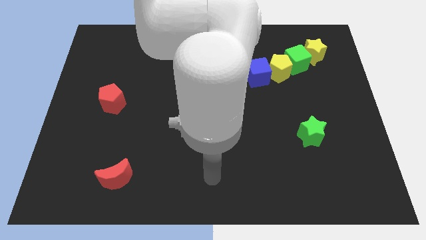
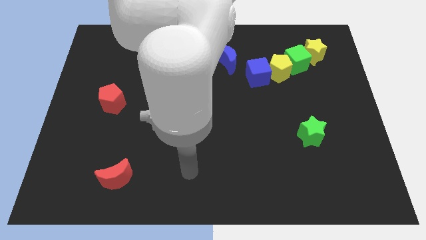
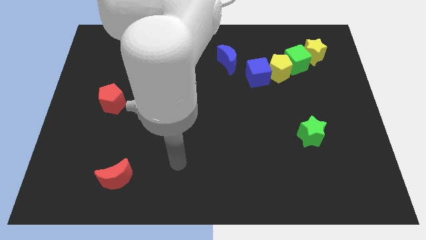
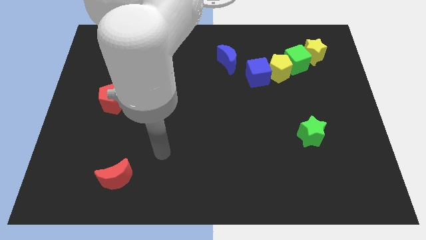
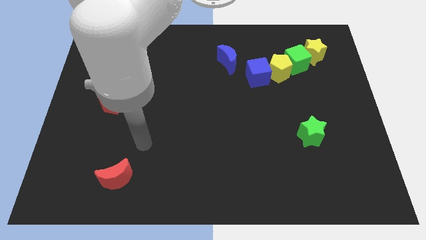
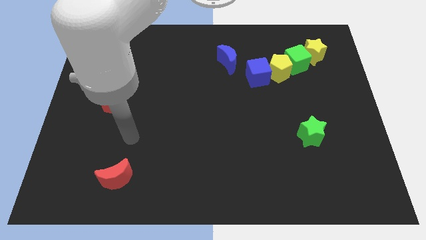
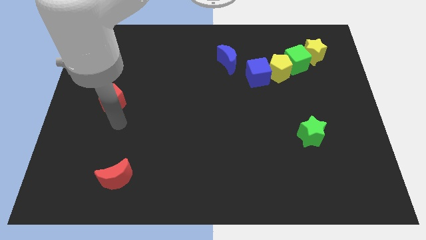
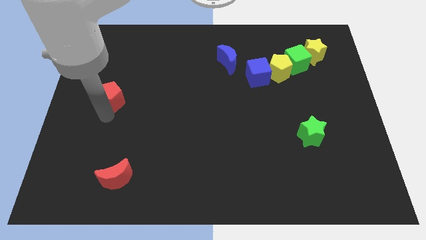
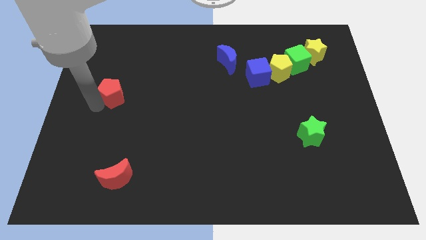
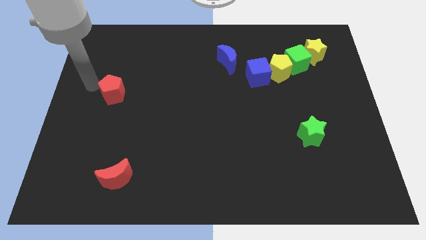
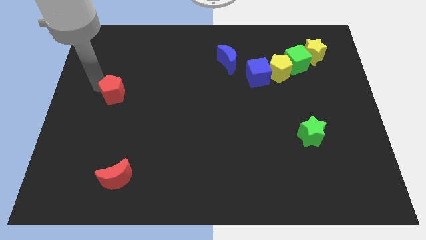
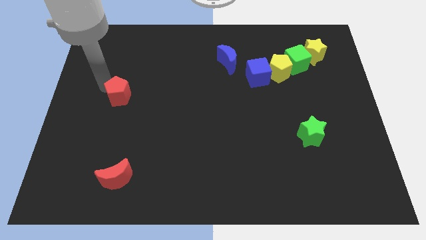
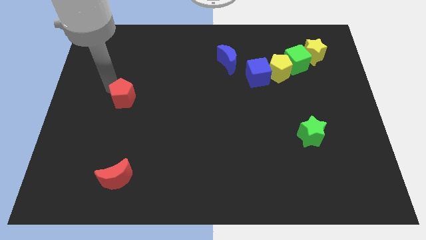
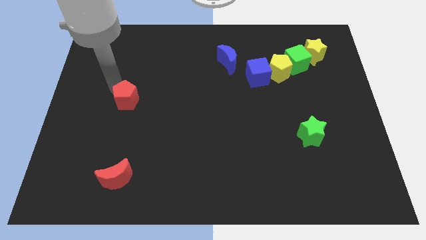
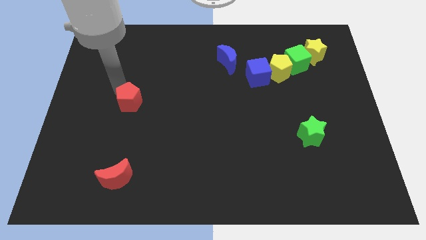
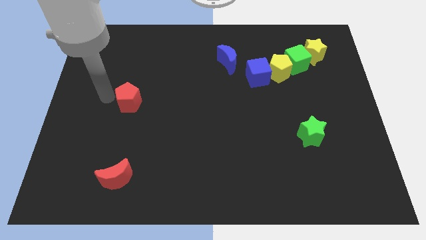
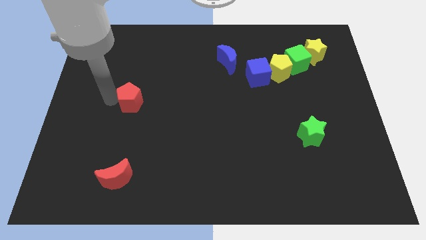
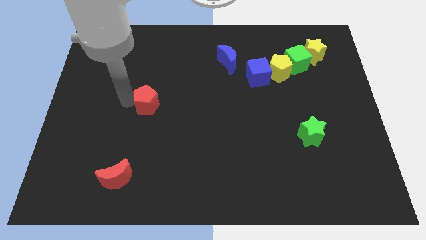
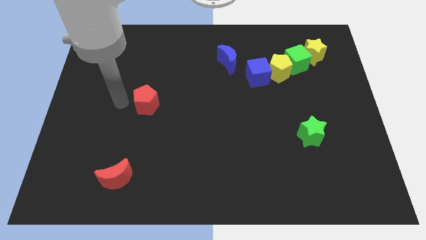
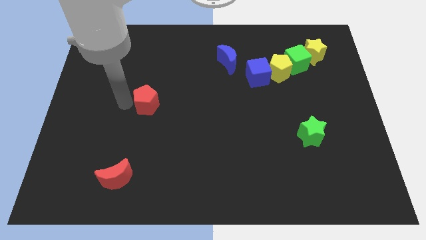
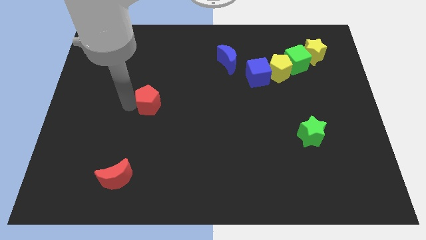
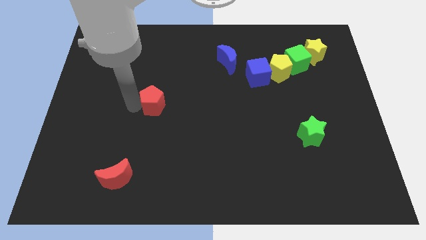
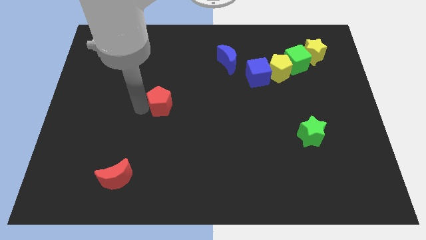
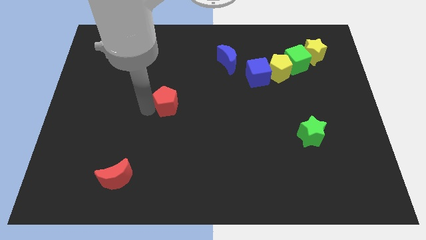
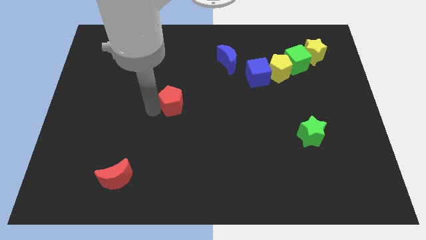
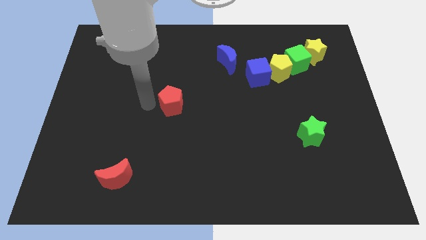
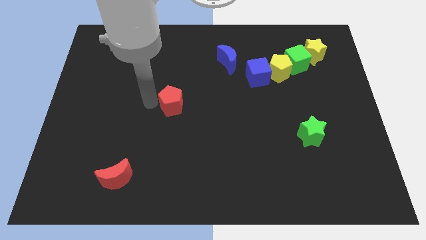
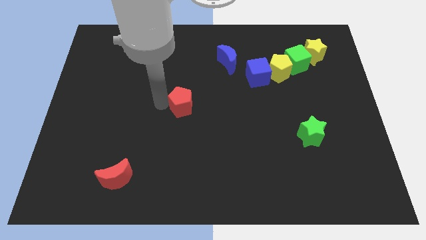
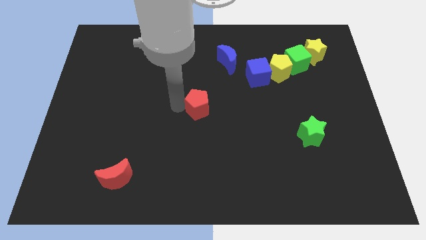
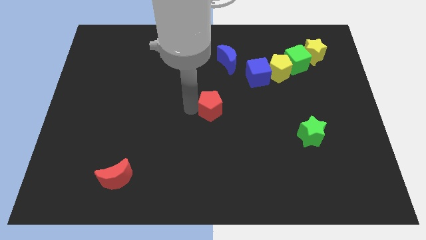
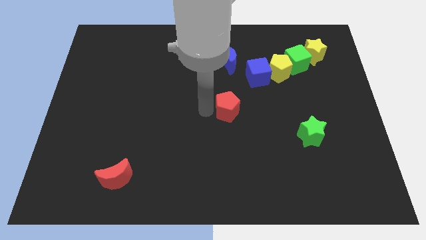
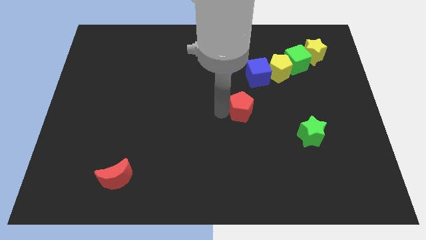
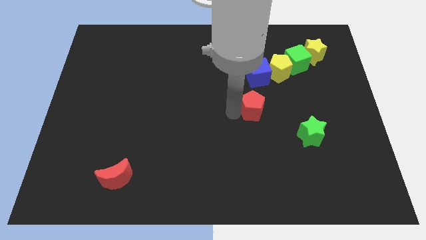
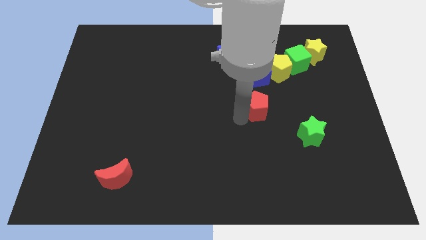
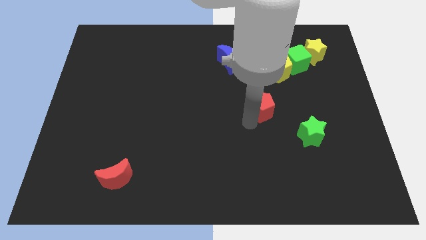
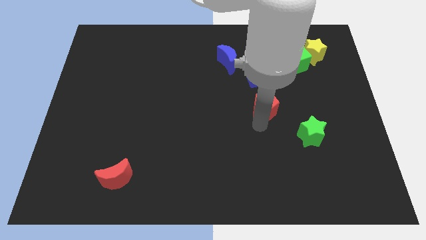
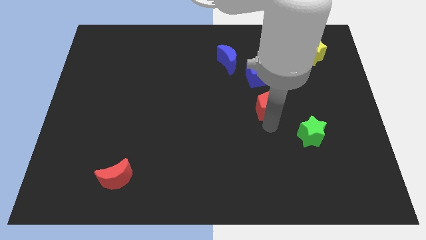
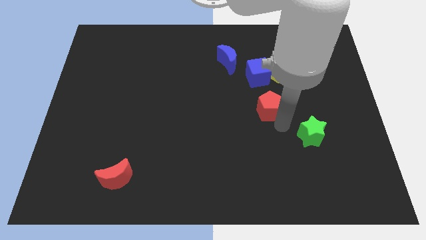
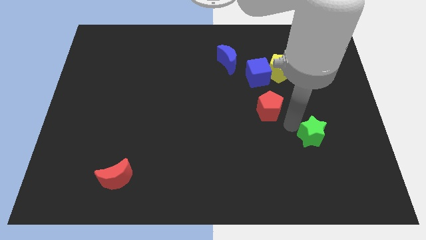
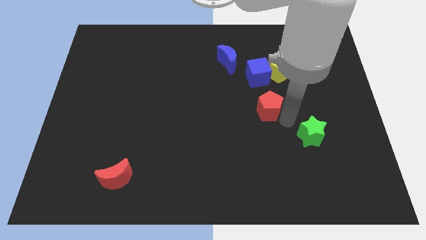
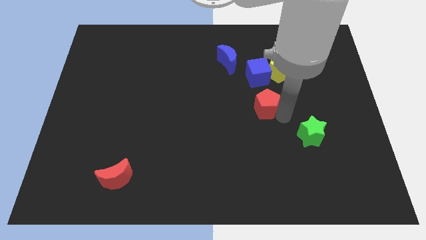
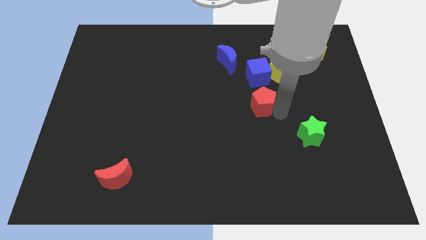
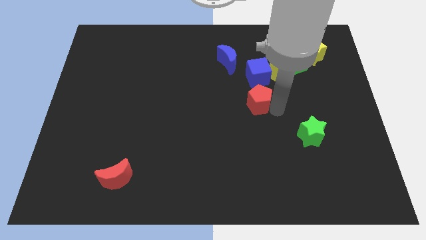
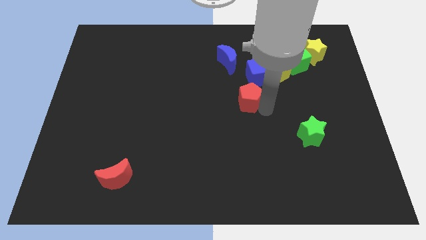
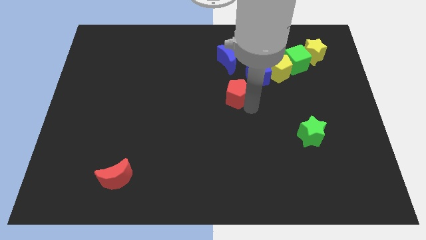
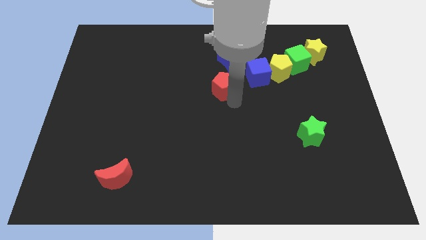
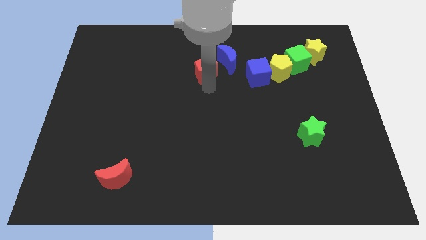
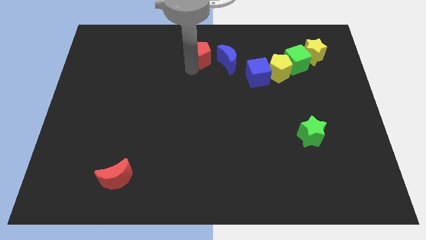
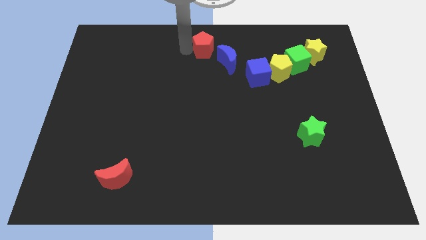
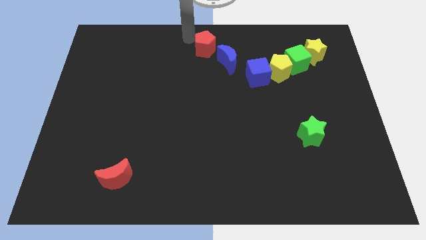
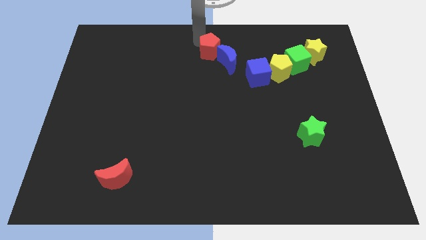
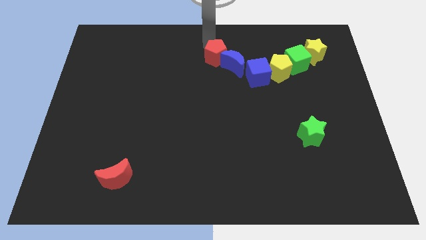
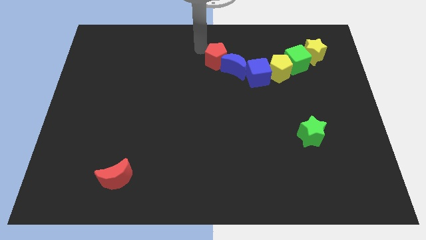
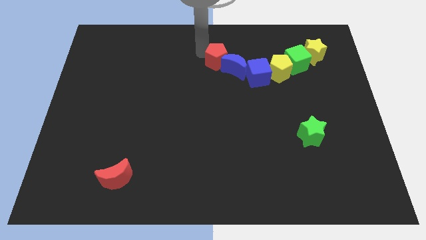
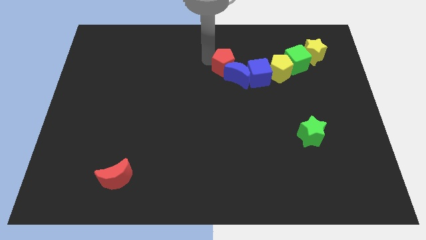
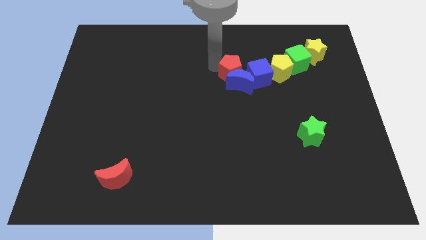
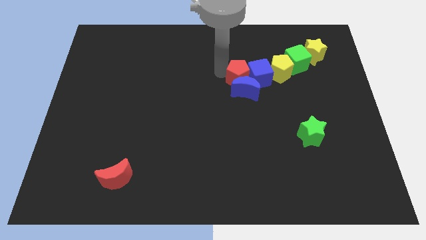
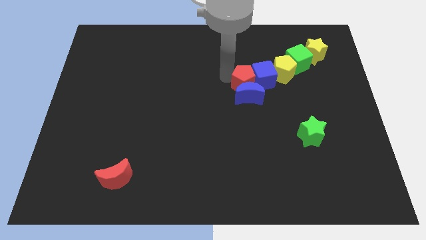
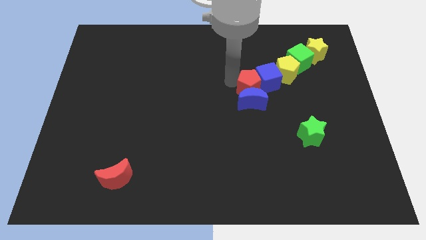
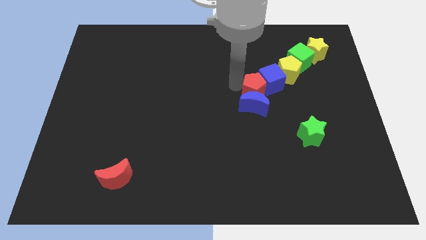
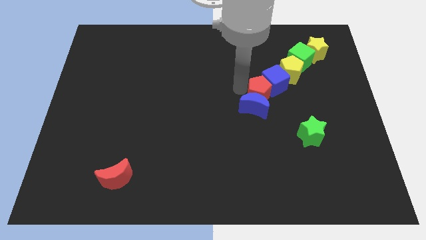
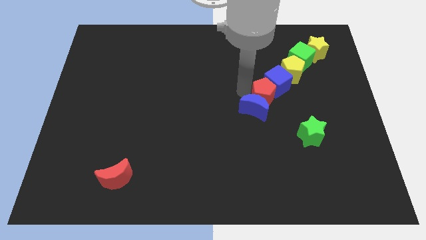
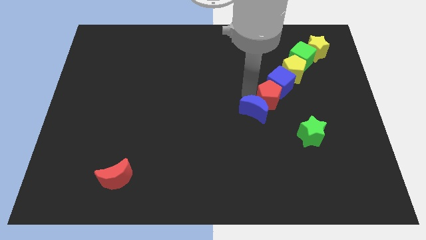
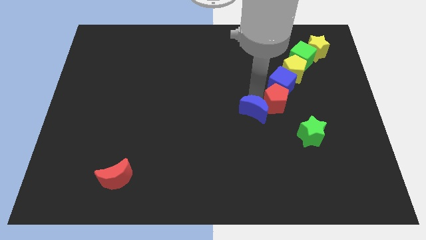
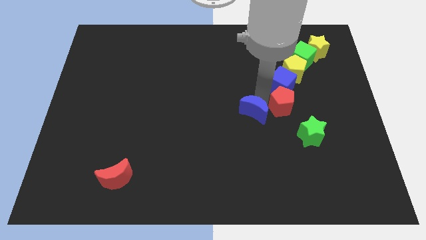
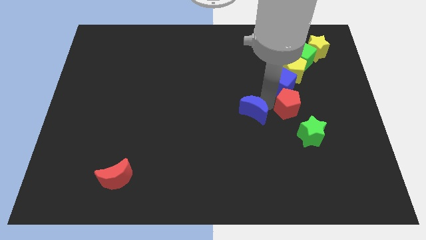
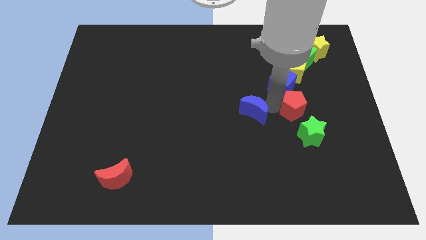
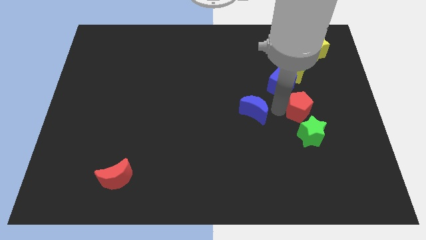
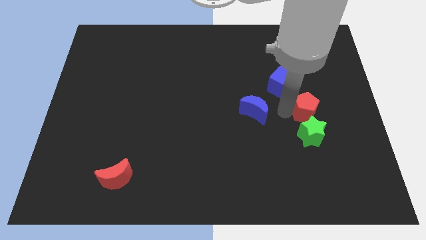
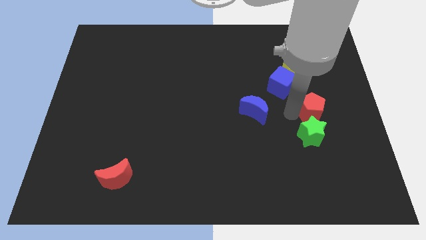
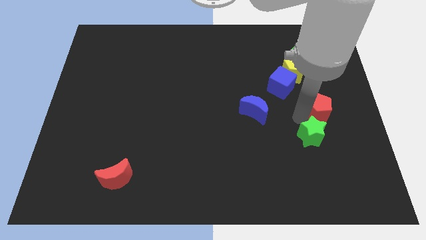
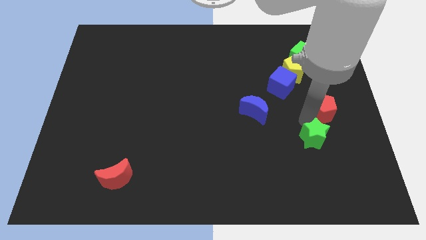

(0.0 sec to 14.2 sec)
put the red pentagon to the center right
